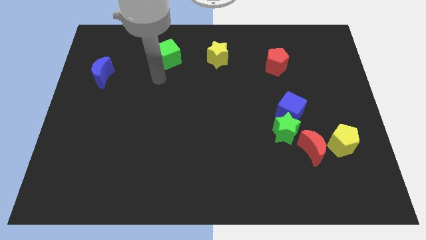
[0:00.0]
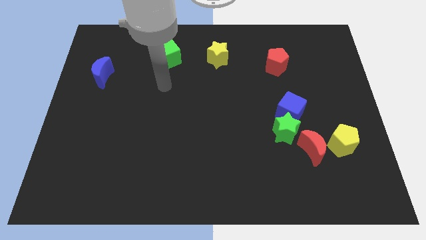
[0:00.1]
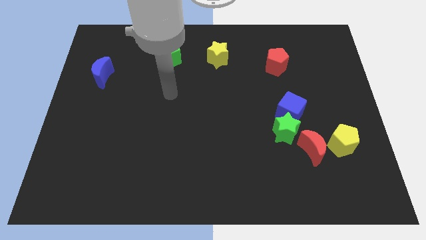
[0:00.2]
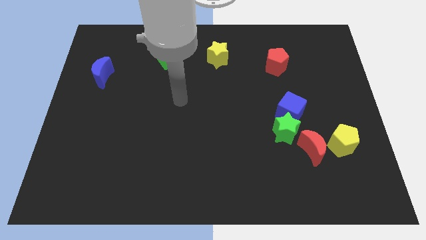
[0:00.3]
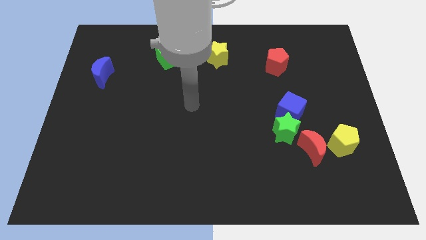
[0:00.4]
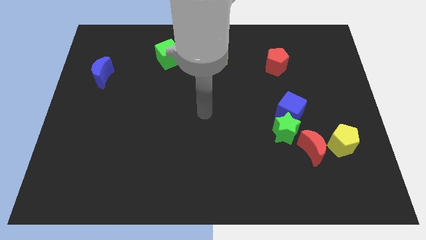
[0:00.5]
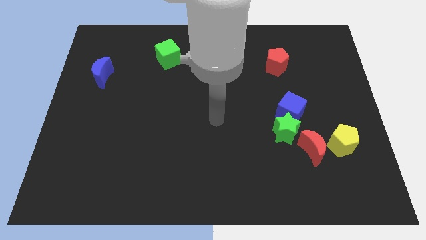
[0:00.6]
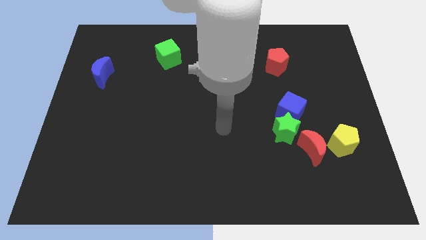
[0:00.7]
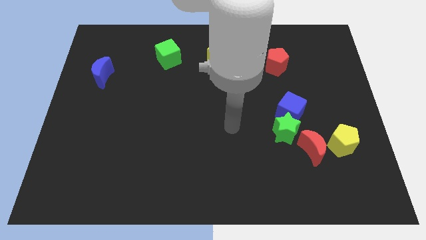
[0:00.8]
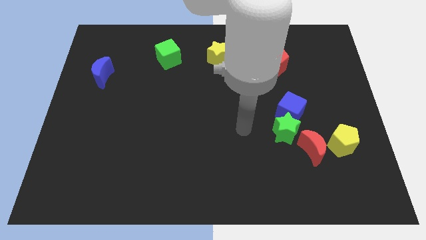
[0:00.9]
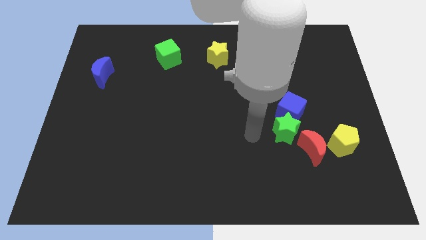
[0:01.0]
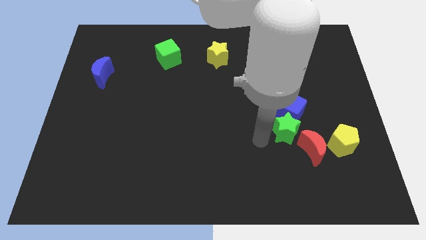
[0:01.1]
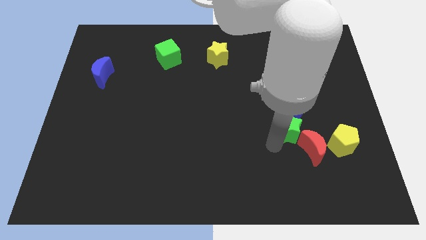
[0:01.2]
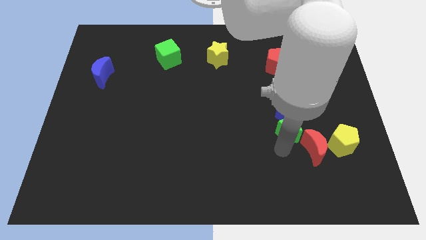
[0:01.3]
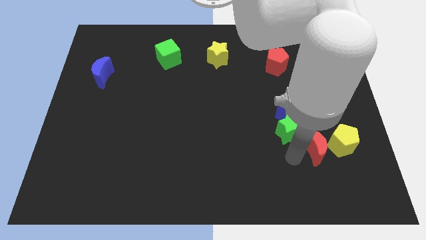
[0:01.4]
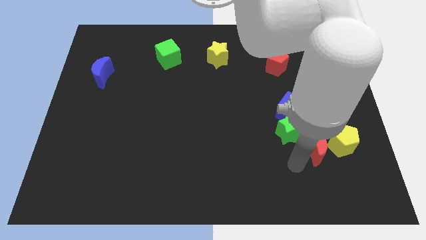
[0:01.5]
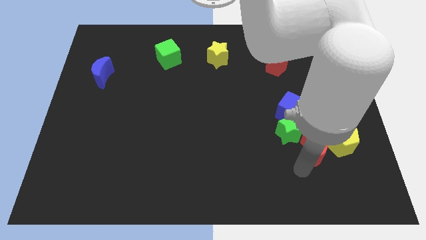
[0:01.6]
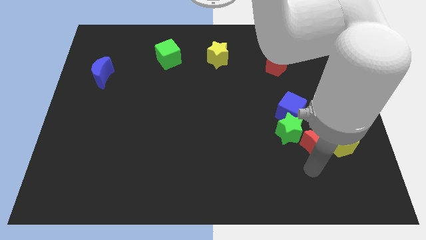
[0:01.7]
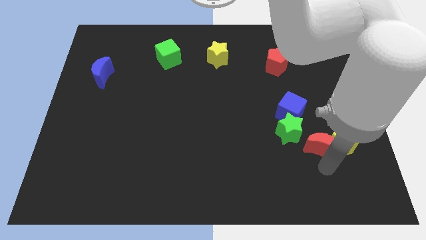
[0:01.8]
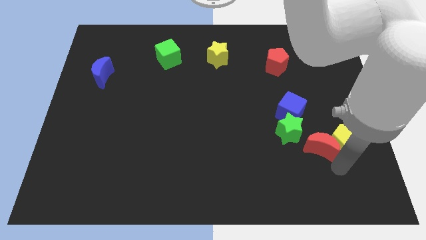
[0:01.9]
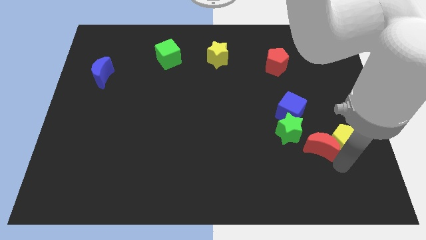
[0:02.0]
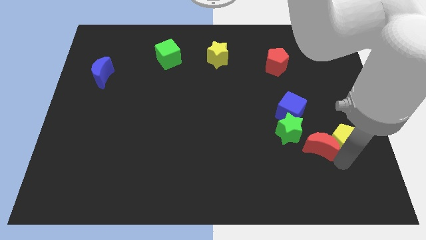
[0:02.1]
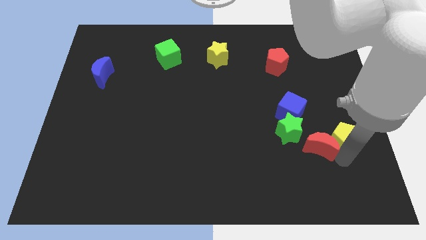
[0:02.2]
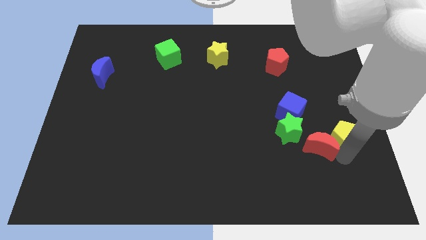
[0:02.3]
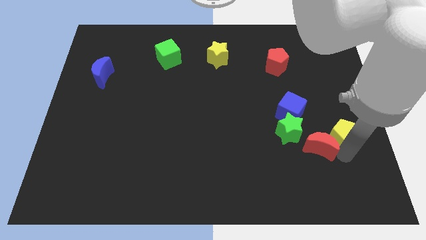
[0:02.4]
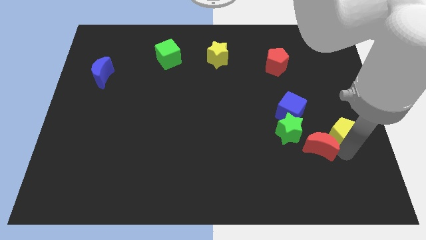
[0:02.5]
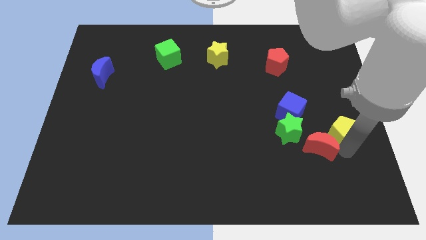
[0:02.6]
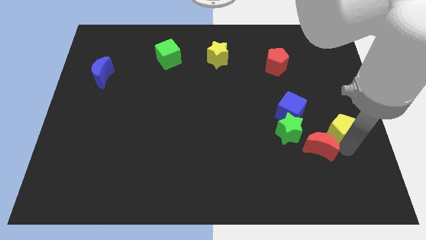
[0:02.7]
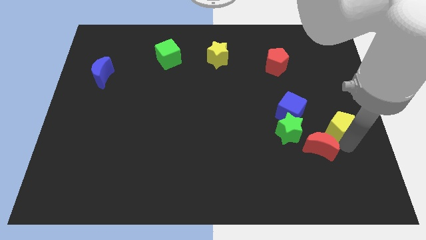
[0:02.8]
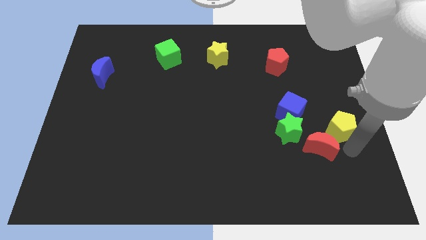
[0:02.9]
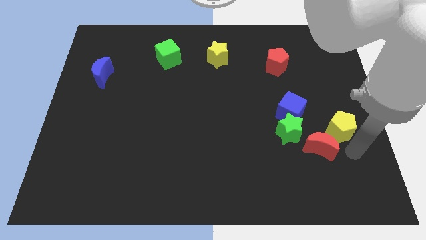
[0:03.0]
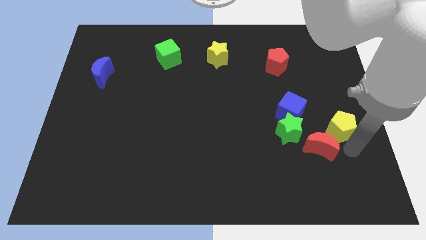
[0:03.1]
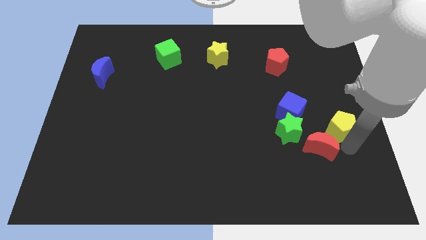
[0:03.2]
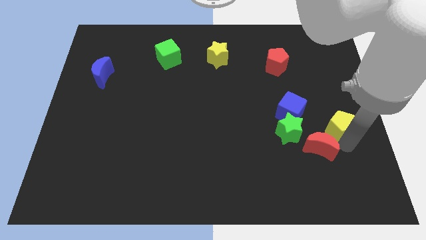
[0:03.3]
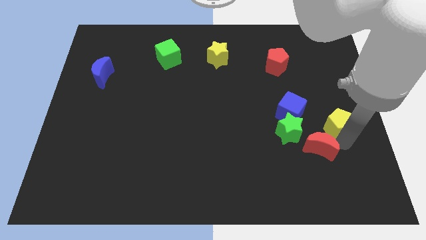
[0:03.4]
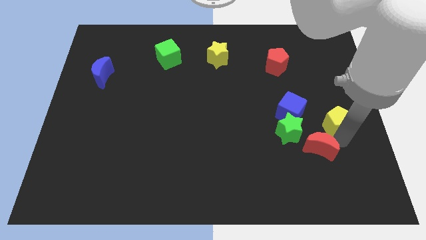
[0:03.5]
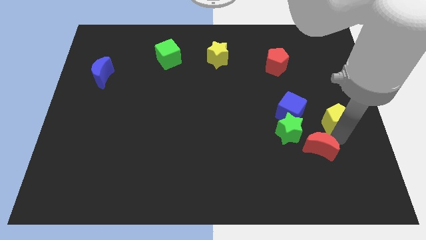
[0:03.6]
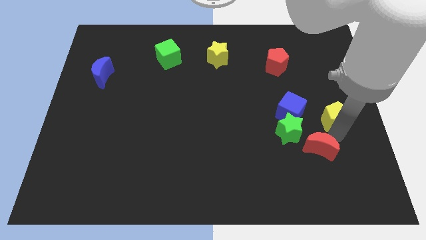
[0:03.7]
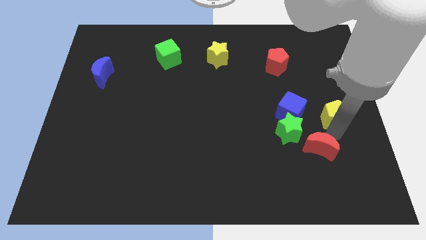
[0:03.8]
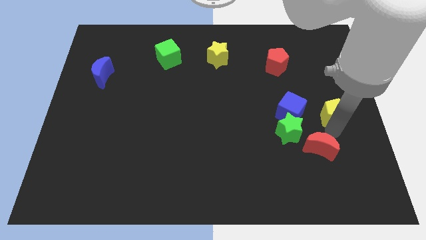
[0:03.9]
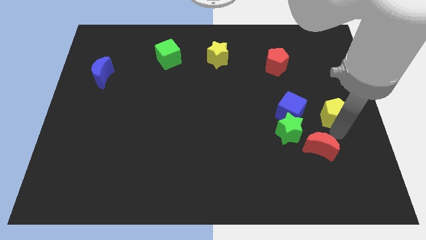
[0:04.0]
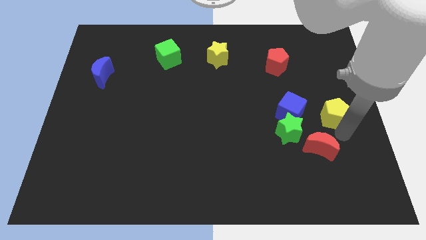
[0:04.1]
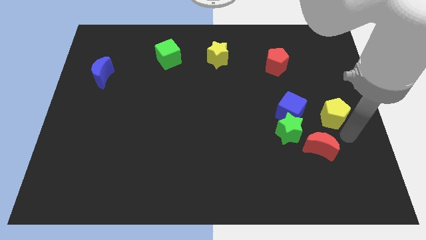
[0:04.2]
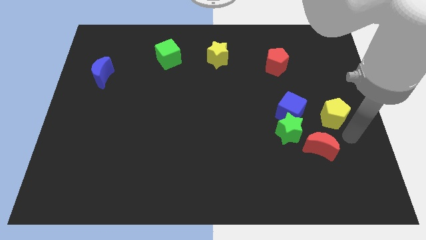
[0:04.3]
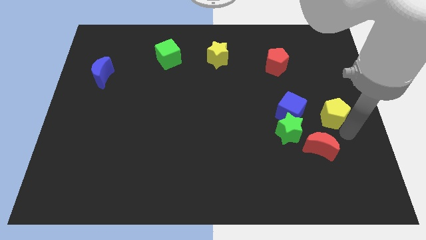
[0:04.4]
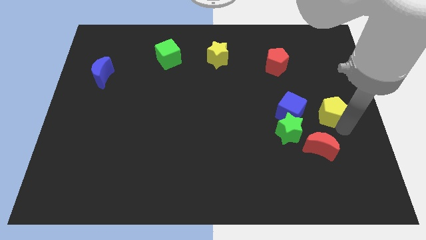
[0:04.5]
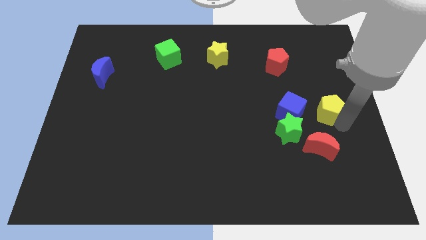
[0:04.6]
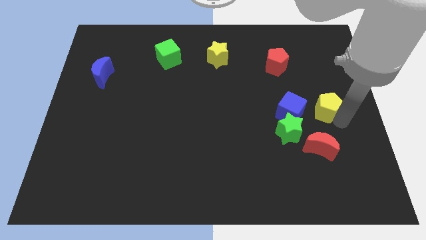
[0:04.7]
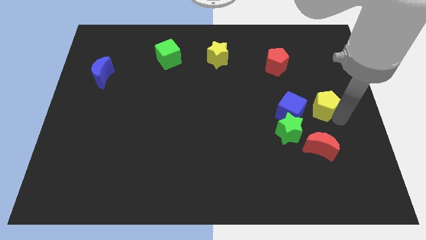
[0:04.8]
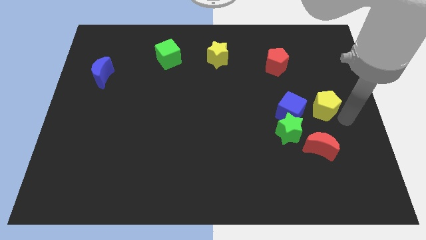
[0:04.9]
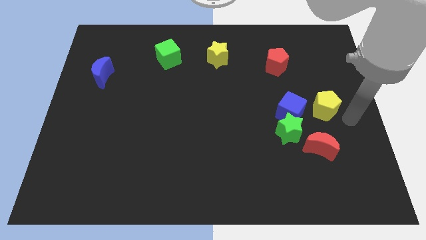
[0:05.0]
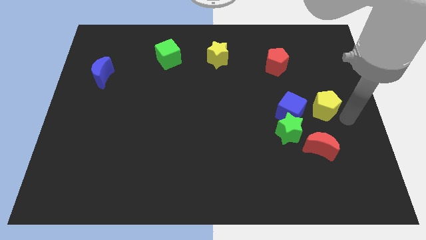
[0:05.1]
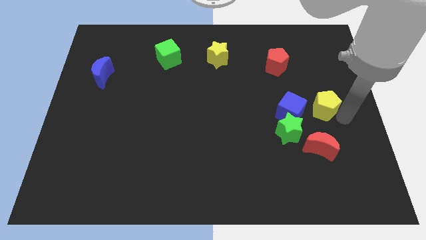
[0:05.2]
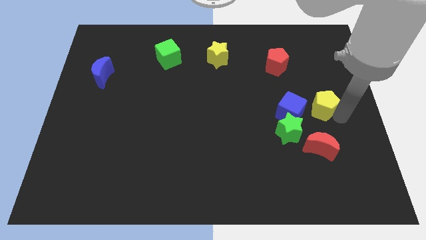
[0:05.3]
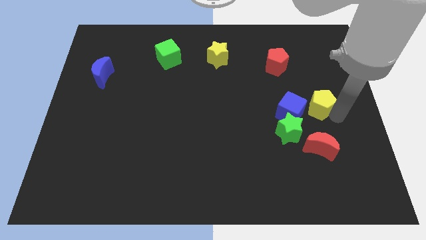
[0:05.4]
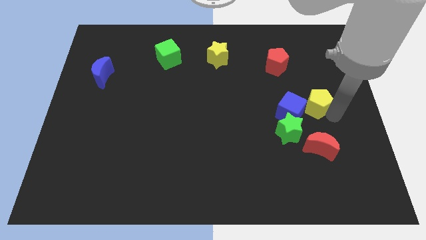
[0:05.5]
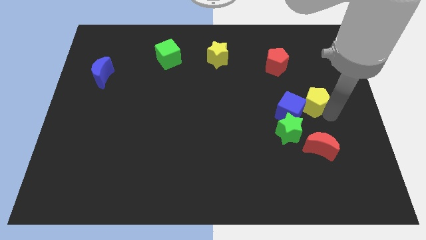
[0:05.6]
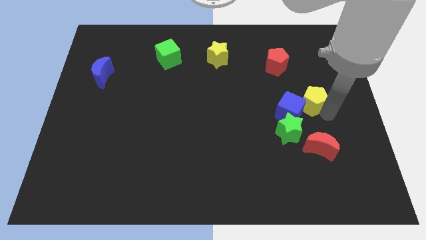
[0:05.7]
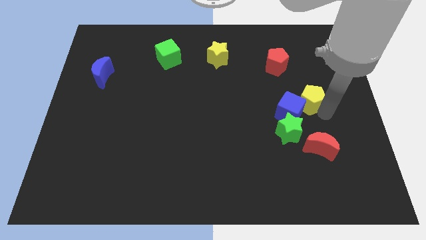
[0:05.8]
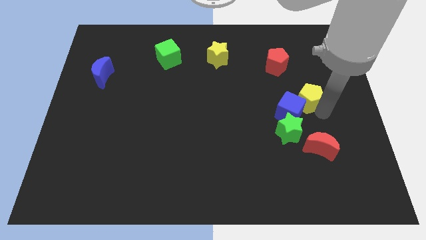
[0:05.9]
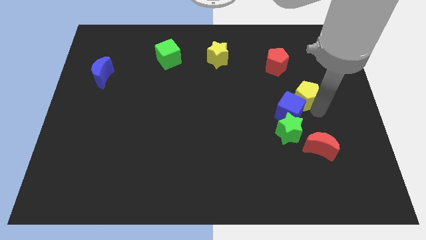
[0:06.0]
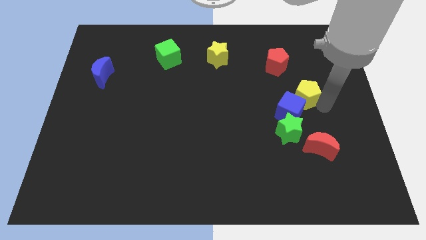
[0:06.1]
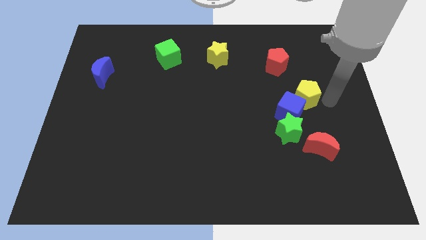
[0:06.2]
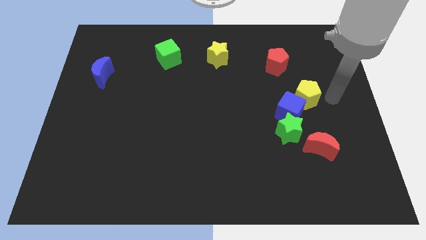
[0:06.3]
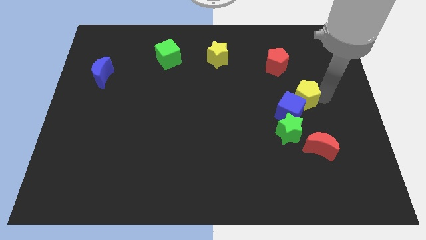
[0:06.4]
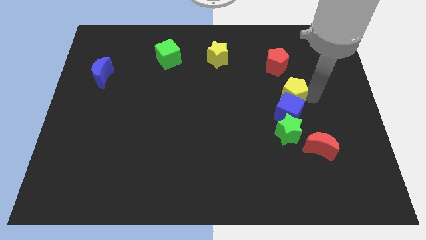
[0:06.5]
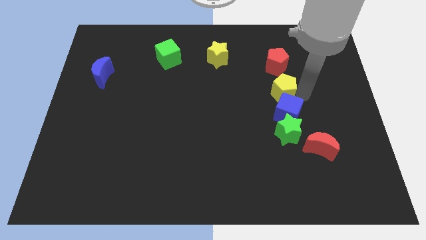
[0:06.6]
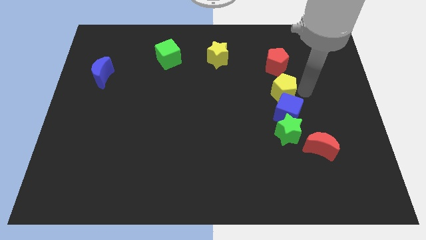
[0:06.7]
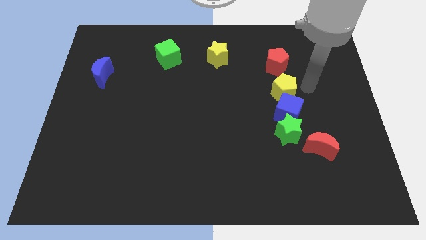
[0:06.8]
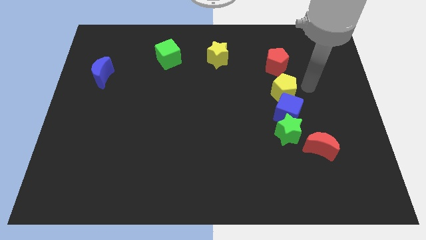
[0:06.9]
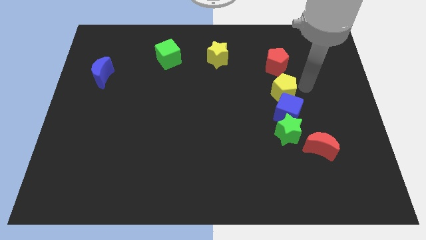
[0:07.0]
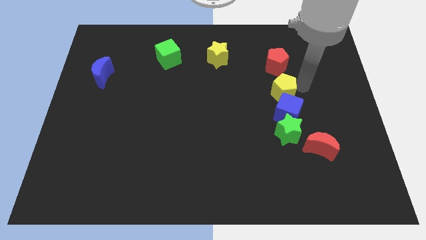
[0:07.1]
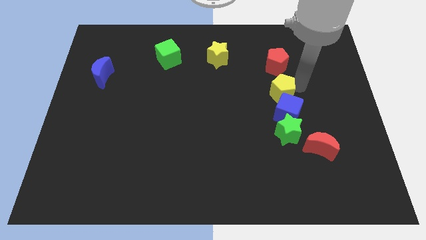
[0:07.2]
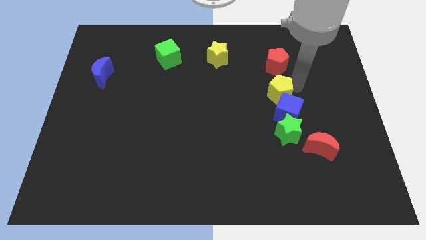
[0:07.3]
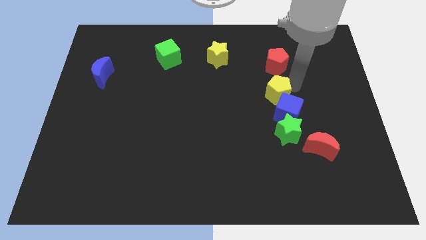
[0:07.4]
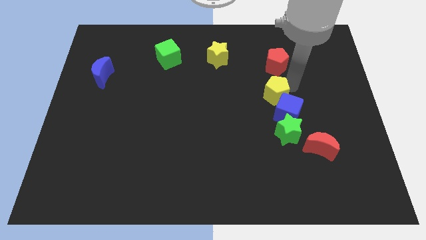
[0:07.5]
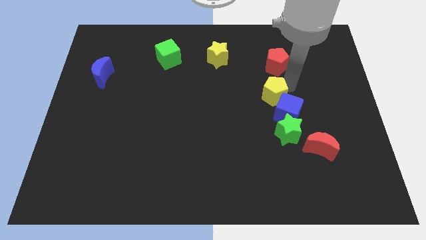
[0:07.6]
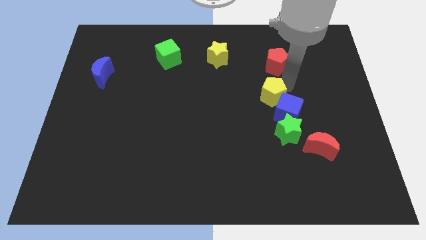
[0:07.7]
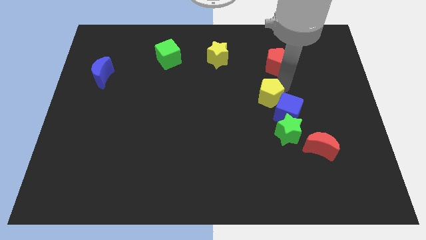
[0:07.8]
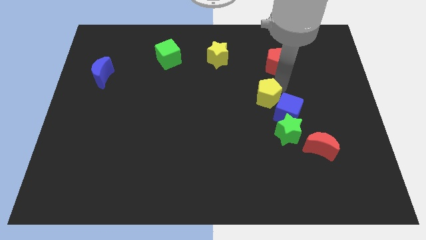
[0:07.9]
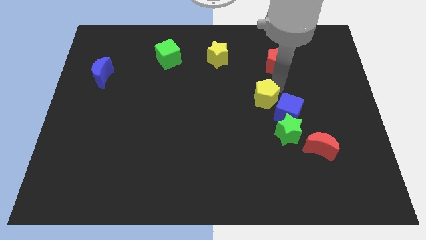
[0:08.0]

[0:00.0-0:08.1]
push the yellow pentagon to the middle
